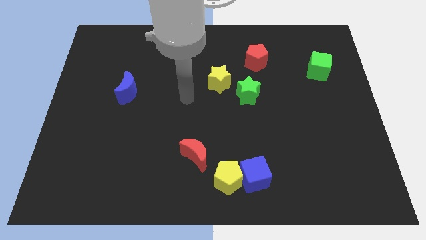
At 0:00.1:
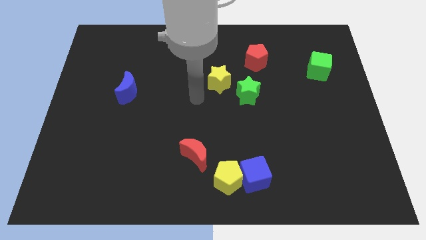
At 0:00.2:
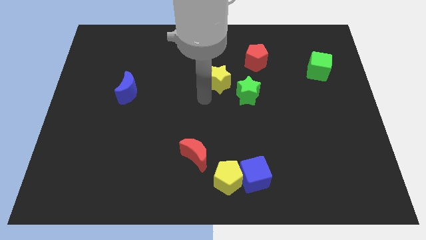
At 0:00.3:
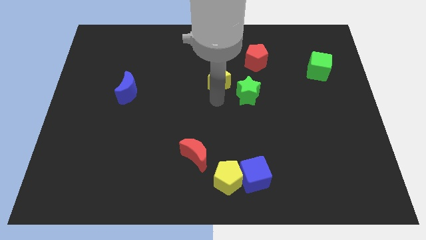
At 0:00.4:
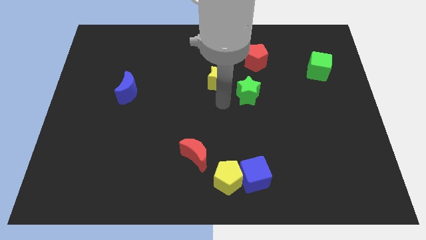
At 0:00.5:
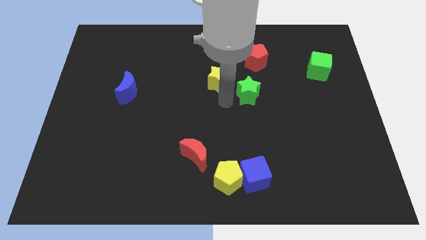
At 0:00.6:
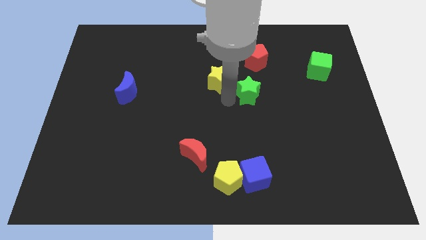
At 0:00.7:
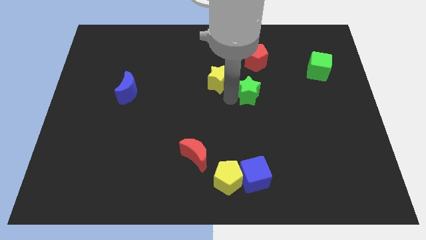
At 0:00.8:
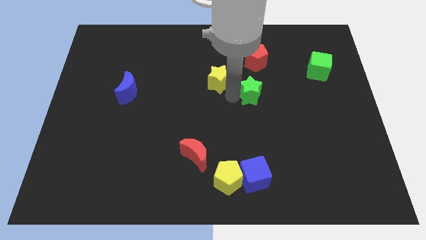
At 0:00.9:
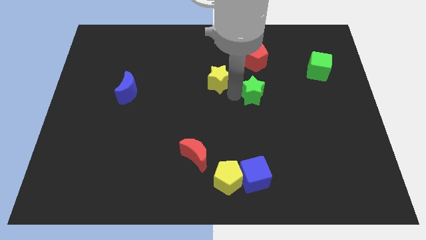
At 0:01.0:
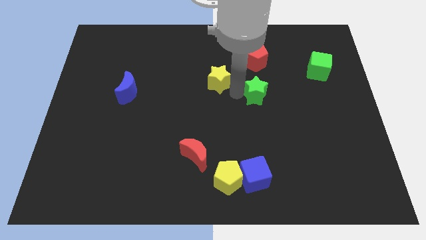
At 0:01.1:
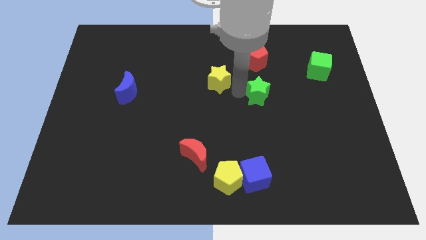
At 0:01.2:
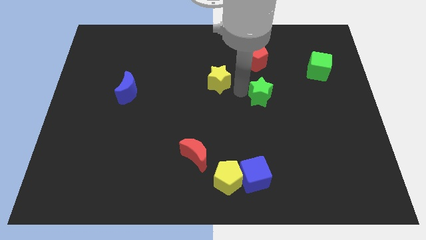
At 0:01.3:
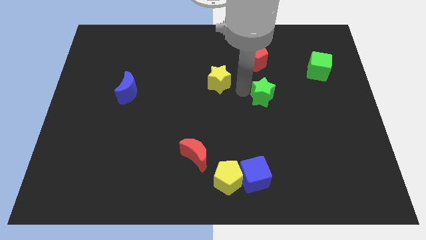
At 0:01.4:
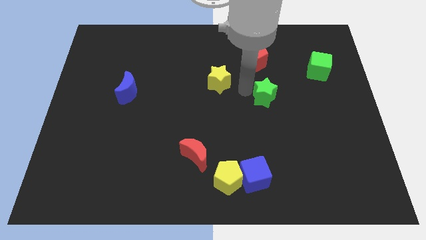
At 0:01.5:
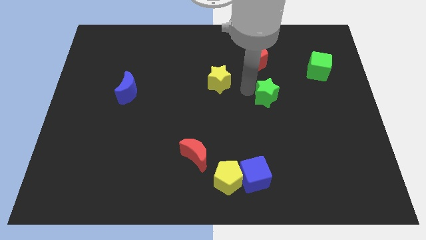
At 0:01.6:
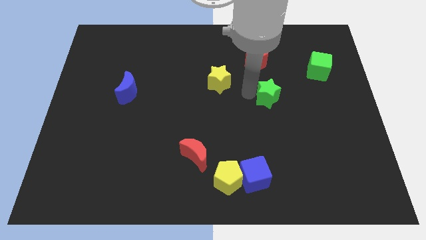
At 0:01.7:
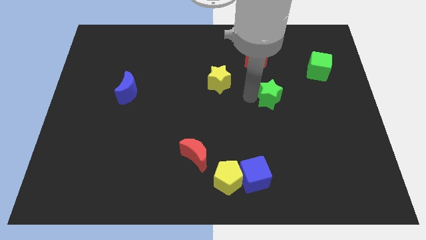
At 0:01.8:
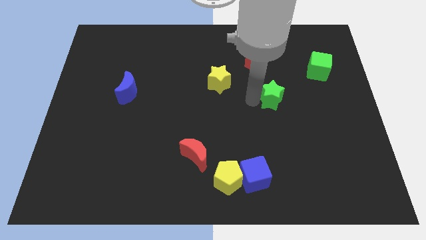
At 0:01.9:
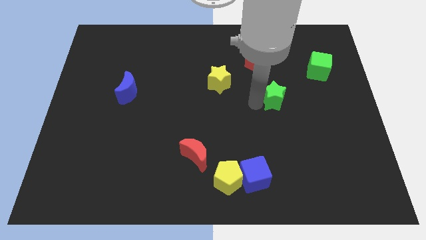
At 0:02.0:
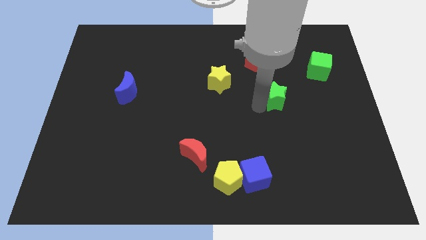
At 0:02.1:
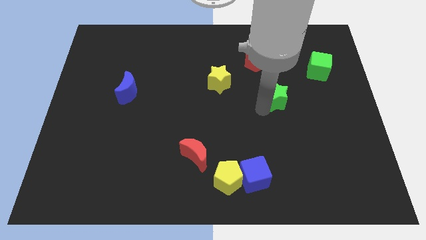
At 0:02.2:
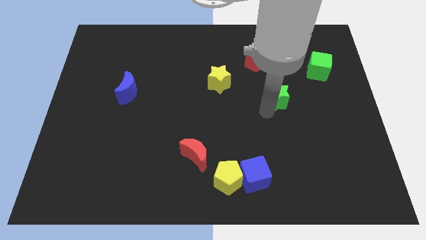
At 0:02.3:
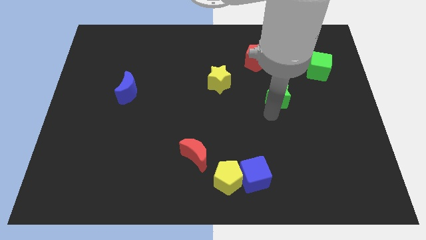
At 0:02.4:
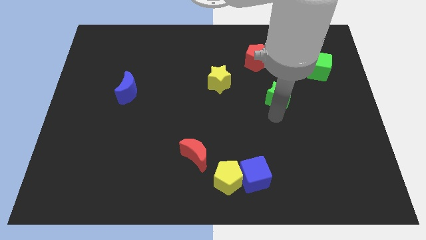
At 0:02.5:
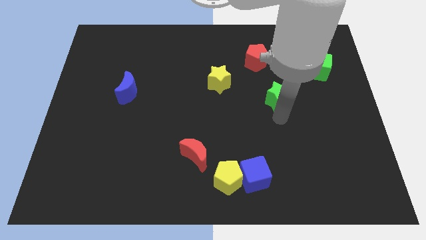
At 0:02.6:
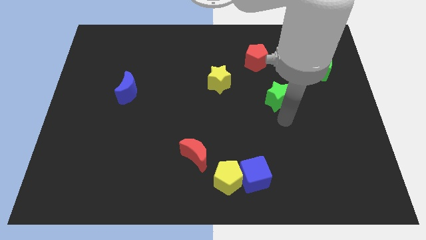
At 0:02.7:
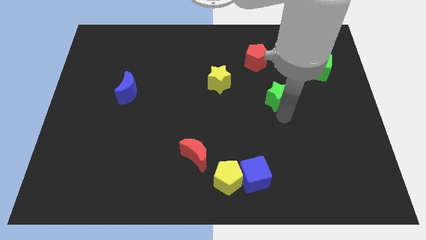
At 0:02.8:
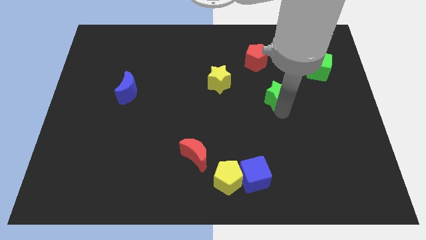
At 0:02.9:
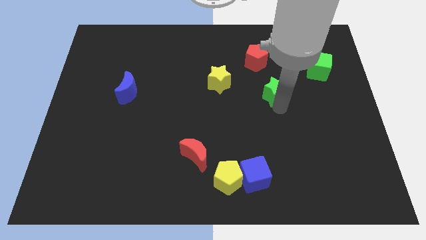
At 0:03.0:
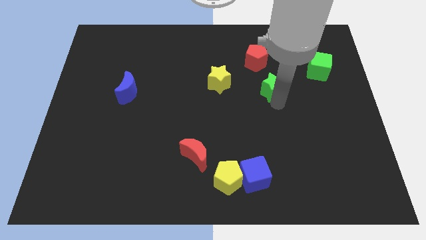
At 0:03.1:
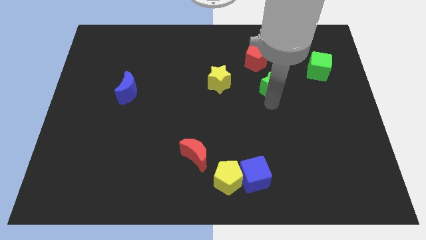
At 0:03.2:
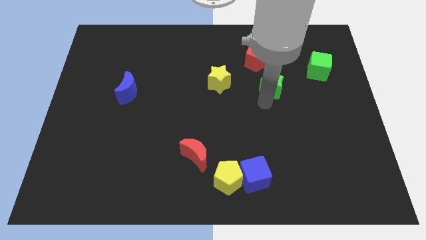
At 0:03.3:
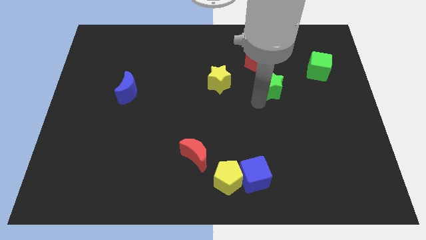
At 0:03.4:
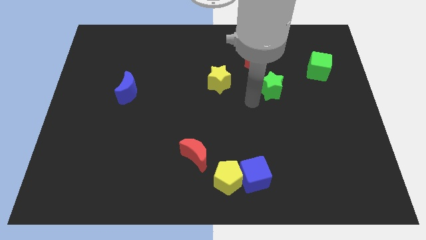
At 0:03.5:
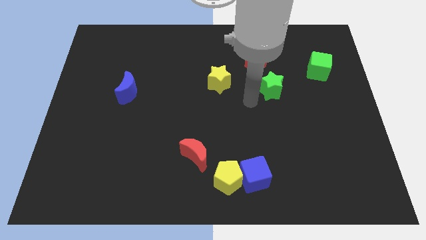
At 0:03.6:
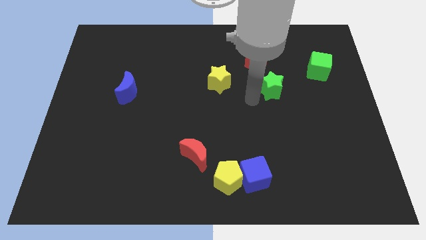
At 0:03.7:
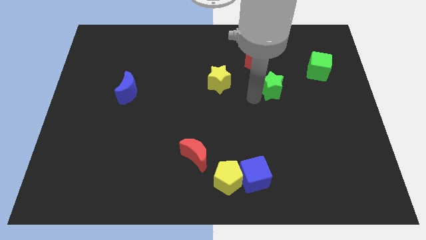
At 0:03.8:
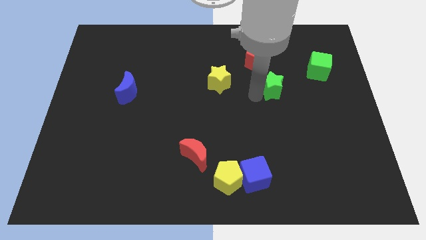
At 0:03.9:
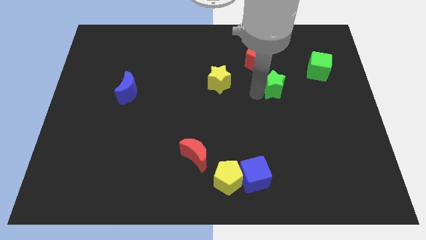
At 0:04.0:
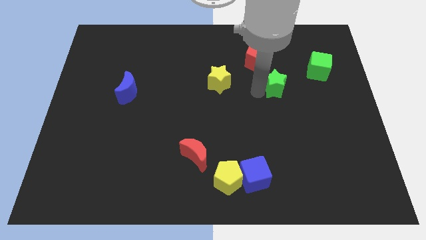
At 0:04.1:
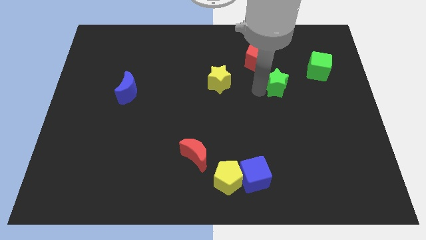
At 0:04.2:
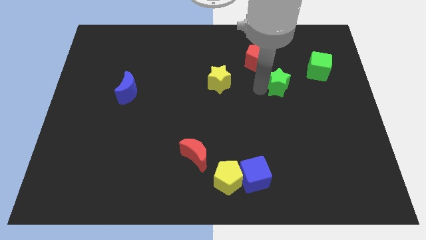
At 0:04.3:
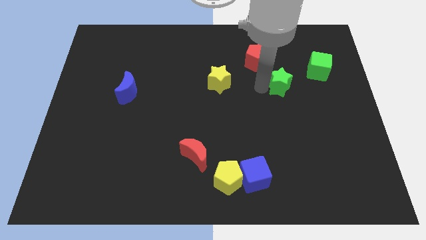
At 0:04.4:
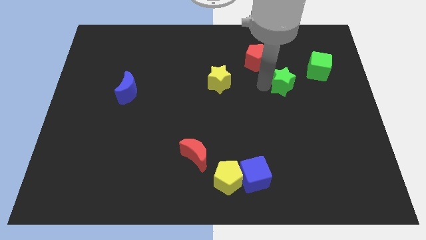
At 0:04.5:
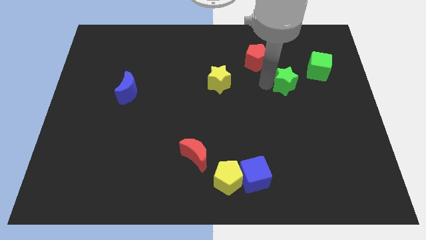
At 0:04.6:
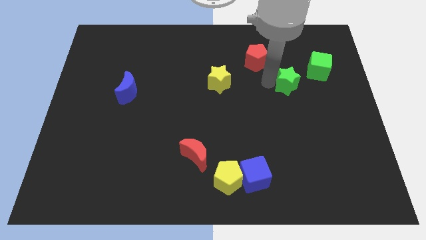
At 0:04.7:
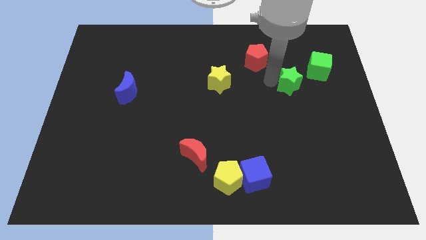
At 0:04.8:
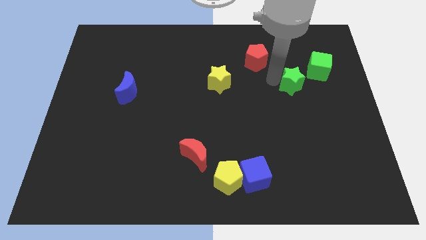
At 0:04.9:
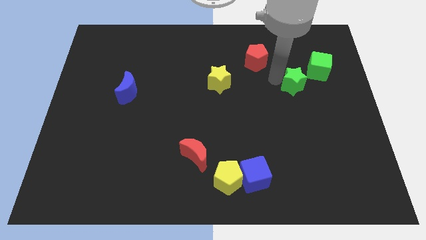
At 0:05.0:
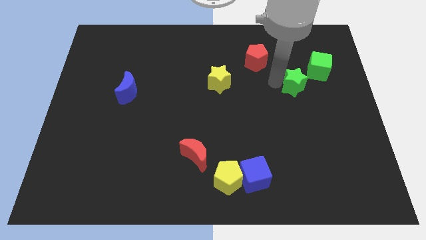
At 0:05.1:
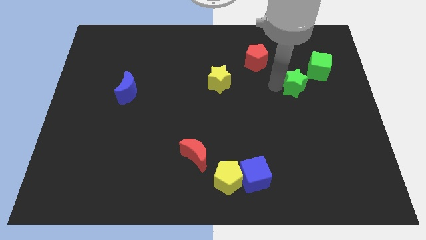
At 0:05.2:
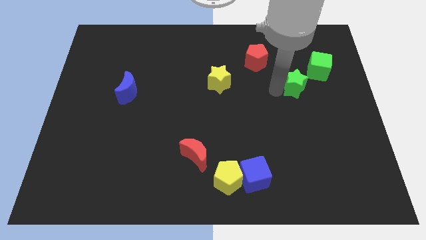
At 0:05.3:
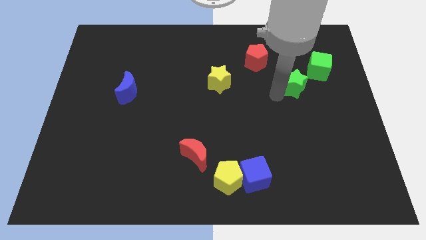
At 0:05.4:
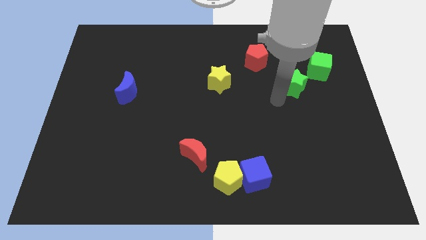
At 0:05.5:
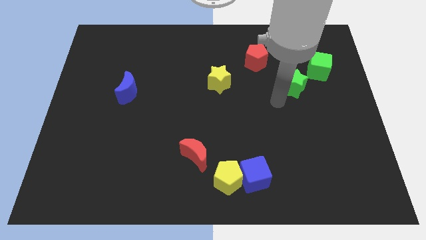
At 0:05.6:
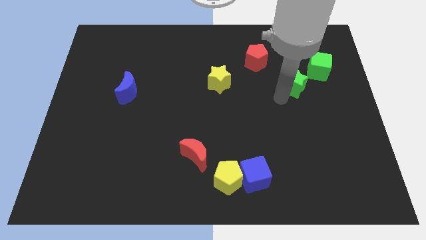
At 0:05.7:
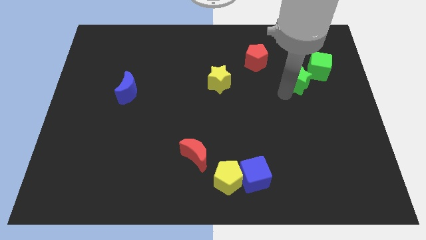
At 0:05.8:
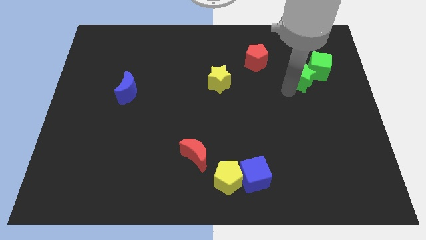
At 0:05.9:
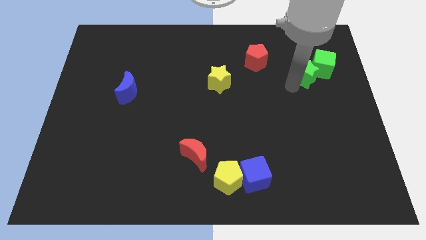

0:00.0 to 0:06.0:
push the green star next to the green cube

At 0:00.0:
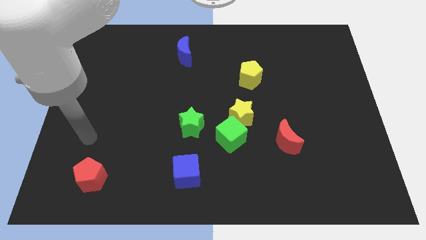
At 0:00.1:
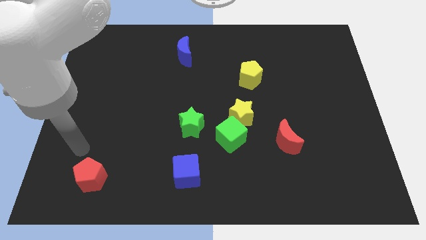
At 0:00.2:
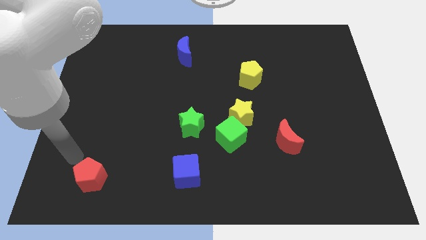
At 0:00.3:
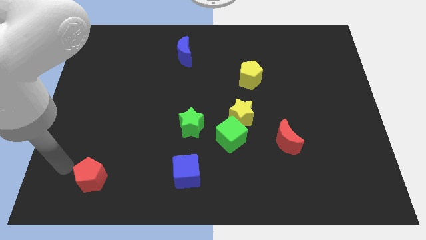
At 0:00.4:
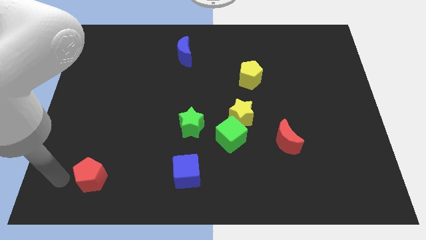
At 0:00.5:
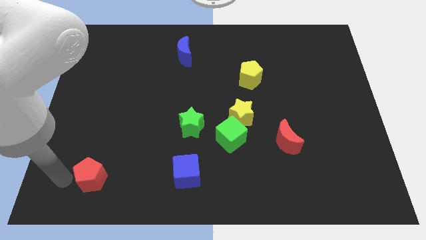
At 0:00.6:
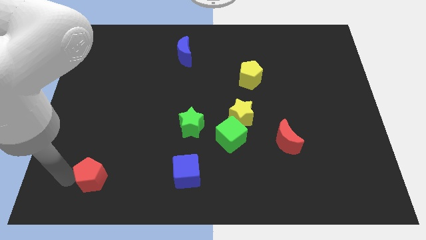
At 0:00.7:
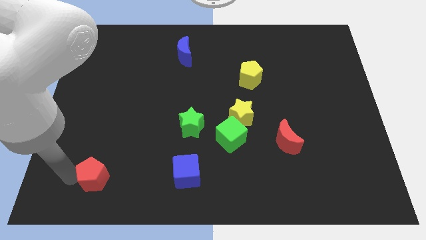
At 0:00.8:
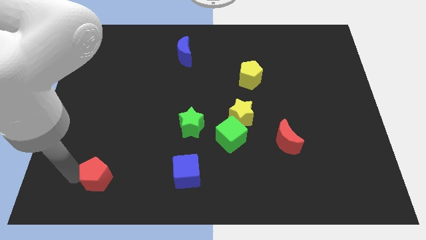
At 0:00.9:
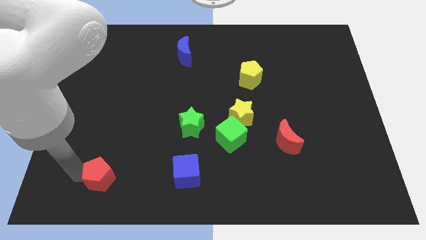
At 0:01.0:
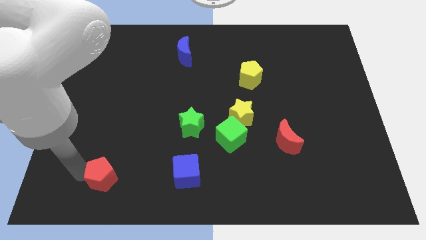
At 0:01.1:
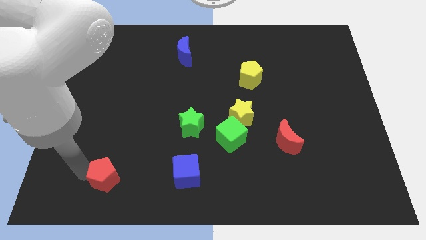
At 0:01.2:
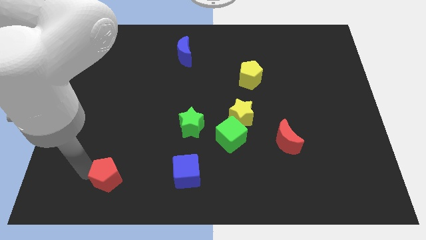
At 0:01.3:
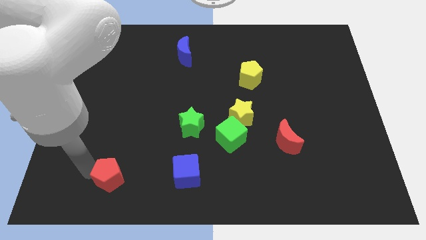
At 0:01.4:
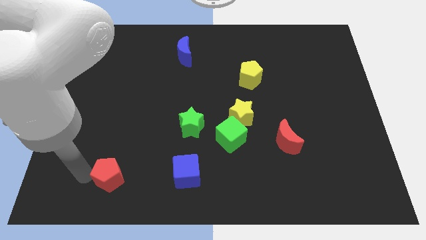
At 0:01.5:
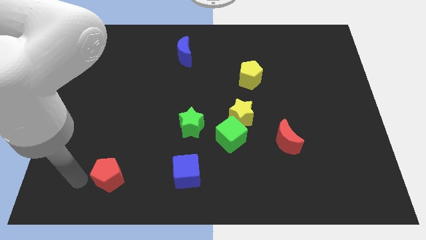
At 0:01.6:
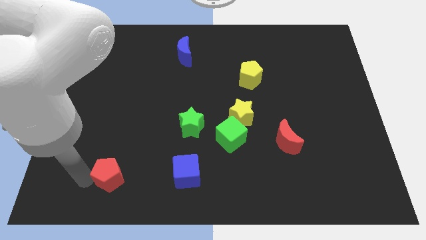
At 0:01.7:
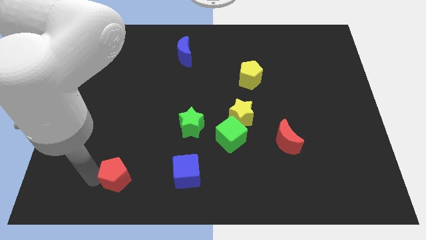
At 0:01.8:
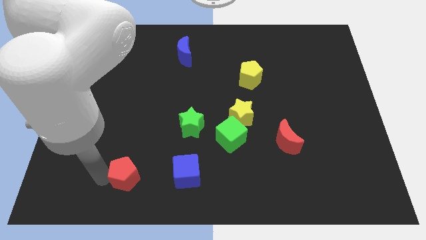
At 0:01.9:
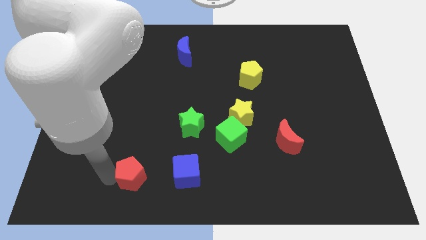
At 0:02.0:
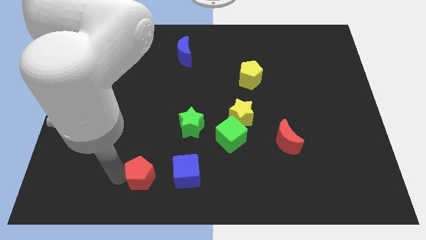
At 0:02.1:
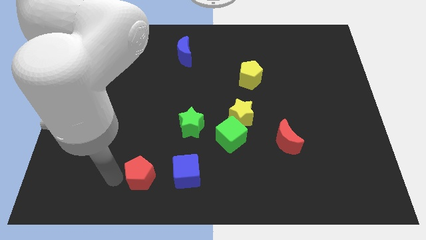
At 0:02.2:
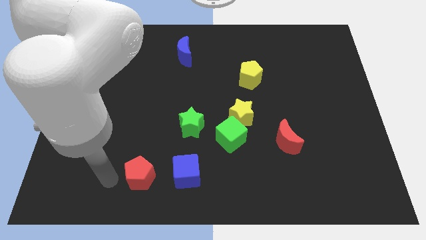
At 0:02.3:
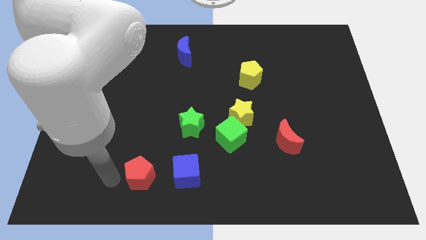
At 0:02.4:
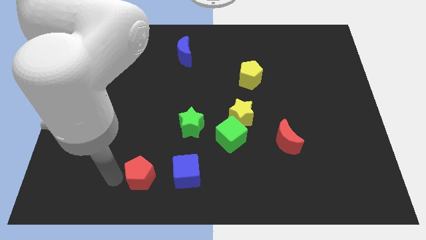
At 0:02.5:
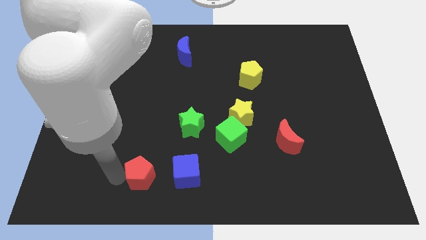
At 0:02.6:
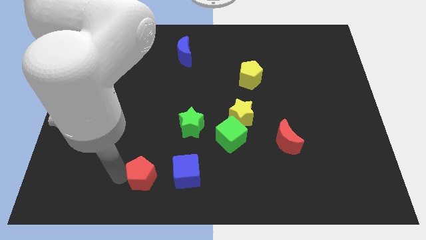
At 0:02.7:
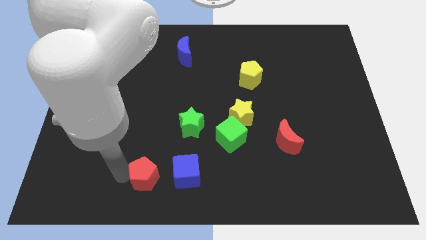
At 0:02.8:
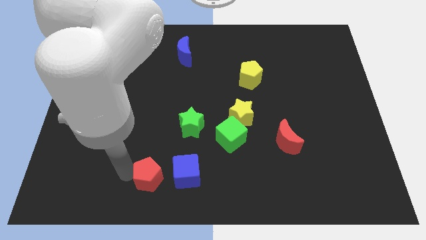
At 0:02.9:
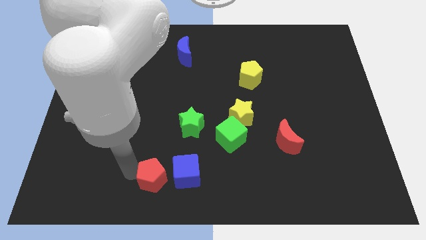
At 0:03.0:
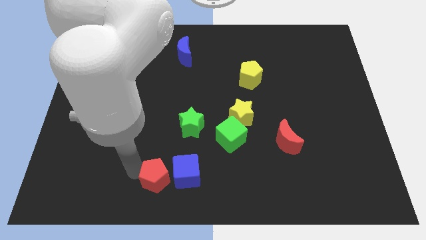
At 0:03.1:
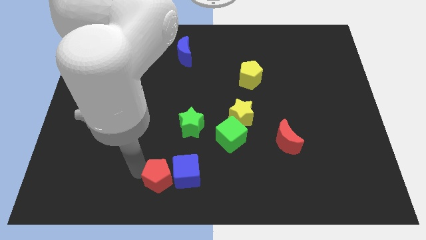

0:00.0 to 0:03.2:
slide the red pentagon next to the blue cube
